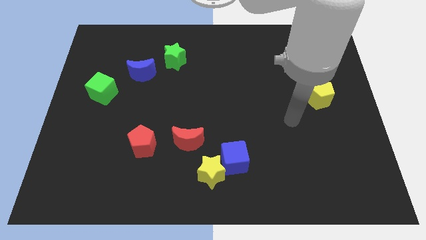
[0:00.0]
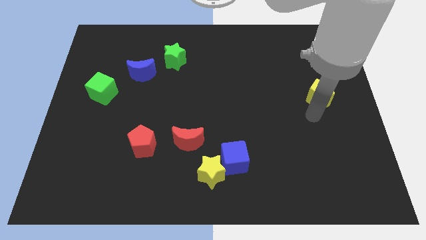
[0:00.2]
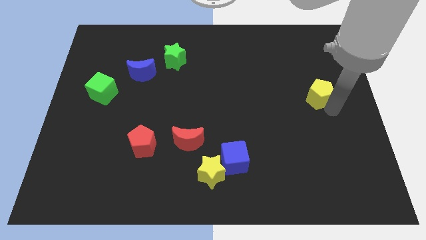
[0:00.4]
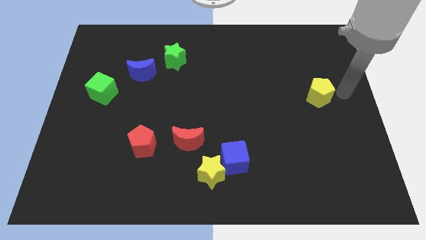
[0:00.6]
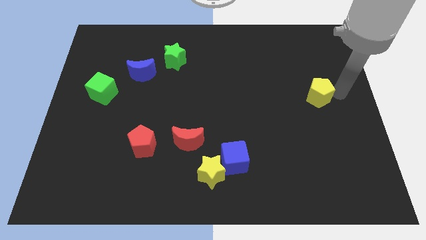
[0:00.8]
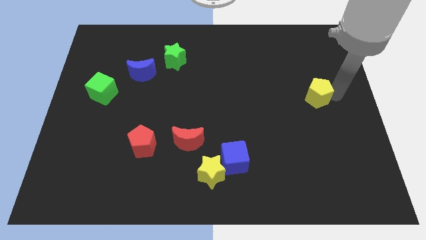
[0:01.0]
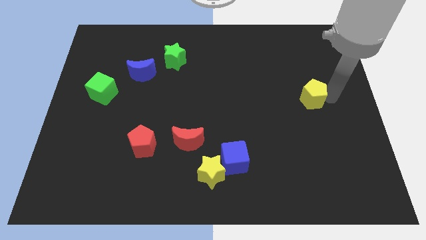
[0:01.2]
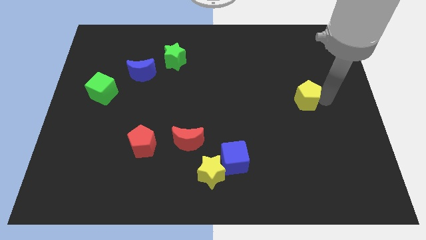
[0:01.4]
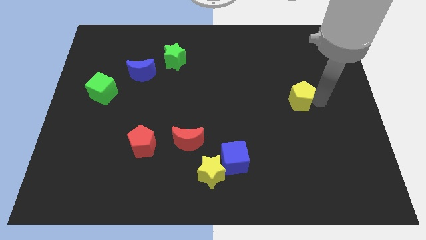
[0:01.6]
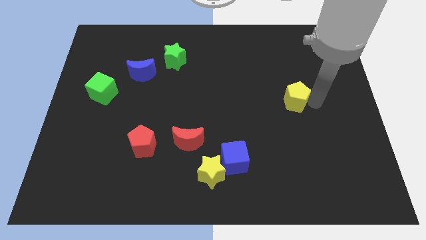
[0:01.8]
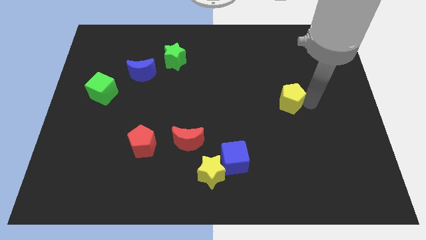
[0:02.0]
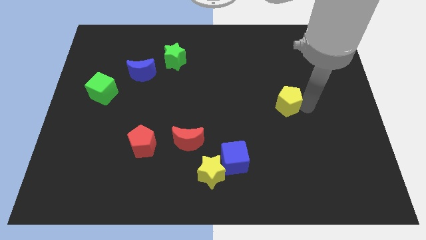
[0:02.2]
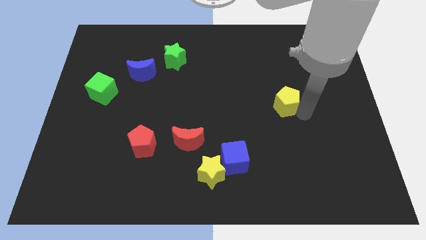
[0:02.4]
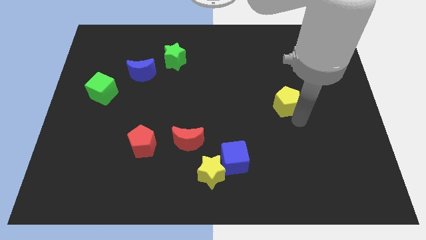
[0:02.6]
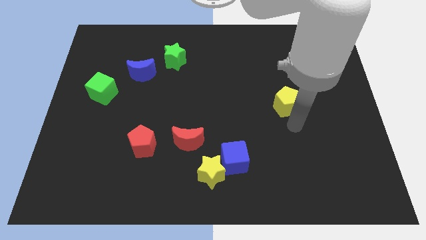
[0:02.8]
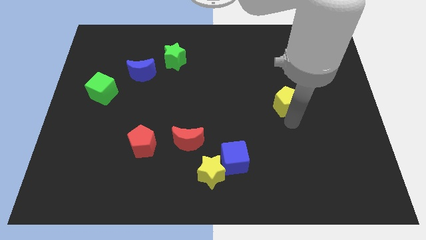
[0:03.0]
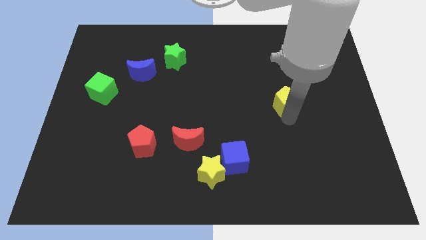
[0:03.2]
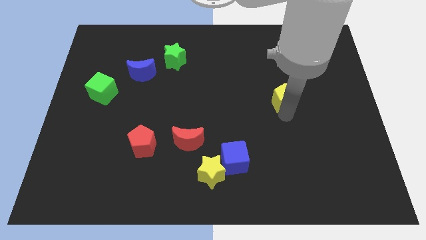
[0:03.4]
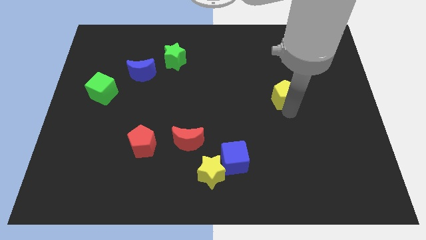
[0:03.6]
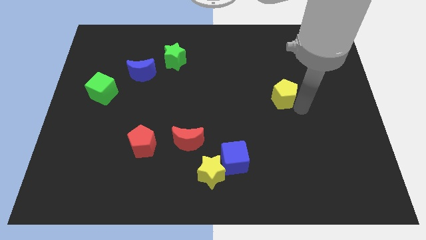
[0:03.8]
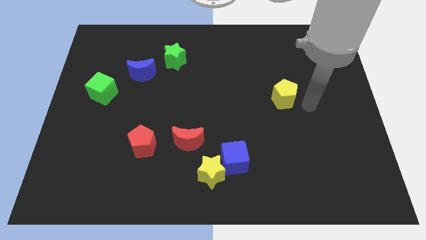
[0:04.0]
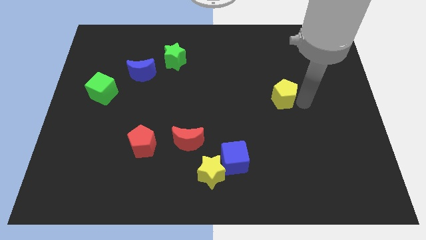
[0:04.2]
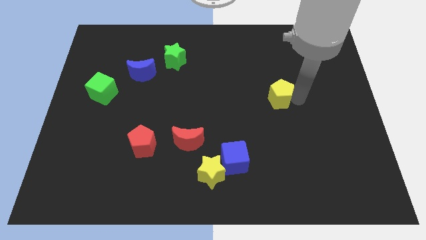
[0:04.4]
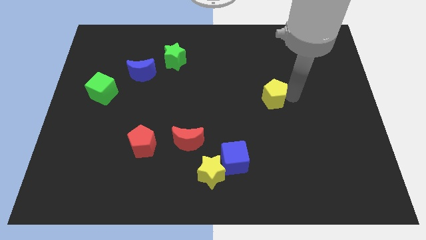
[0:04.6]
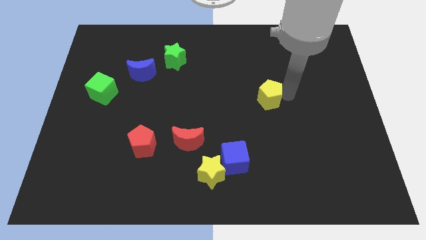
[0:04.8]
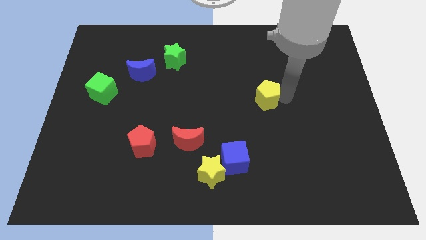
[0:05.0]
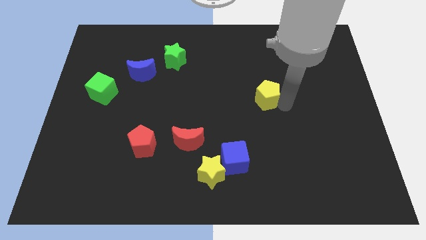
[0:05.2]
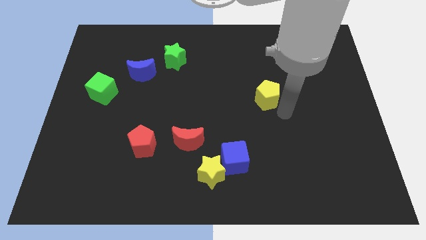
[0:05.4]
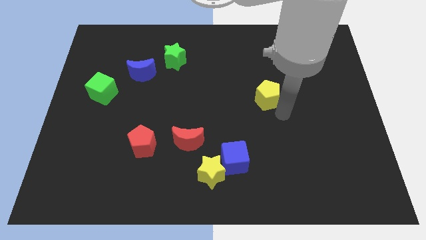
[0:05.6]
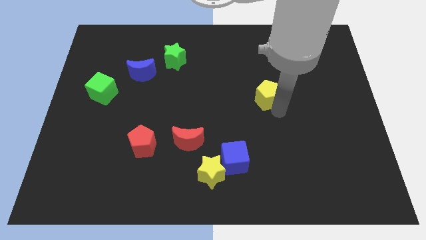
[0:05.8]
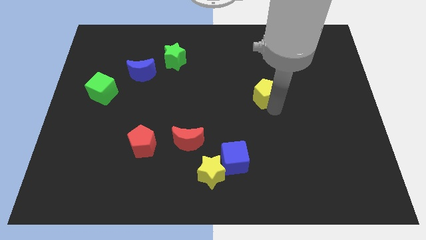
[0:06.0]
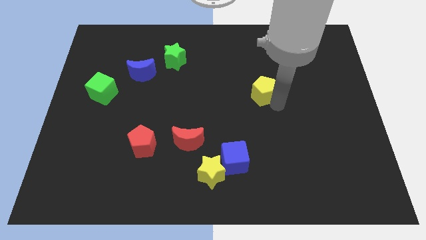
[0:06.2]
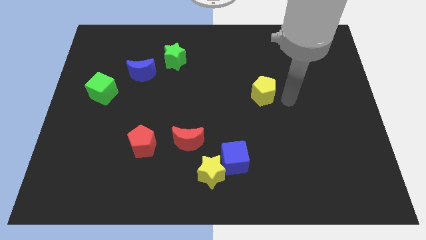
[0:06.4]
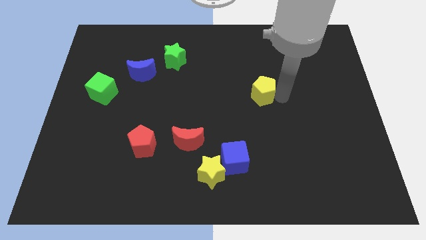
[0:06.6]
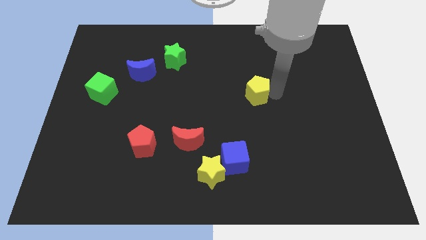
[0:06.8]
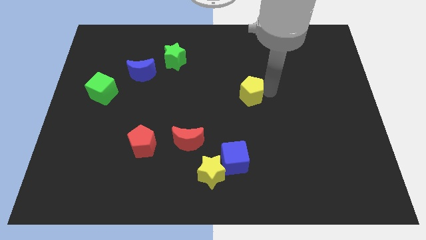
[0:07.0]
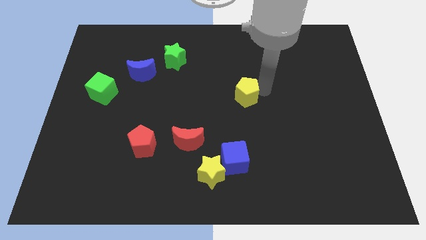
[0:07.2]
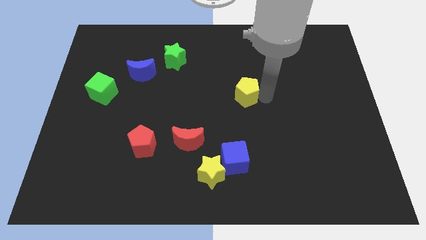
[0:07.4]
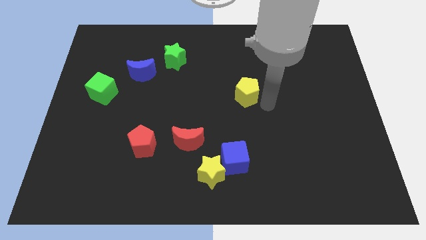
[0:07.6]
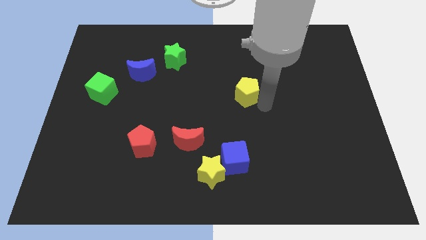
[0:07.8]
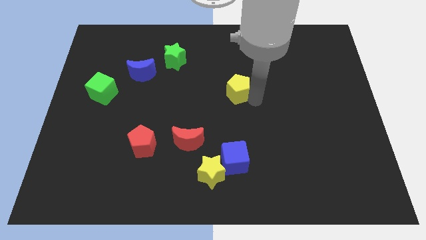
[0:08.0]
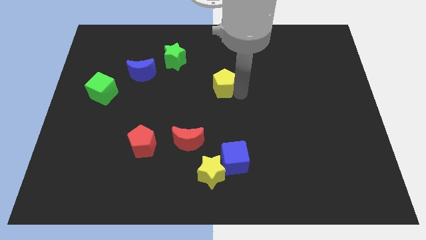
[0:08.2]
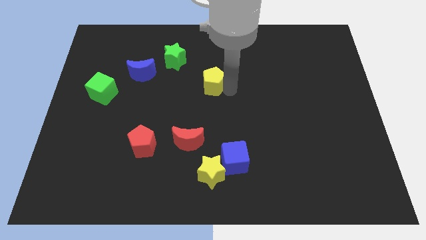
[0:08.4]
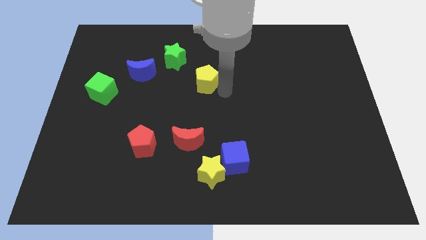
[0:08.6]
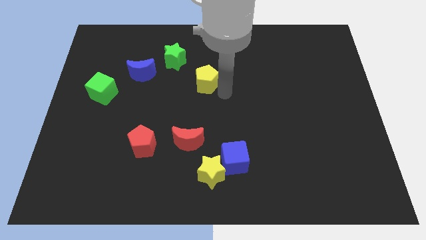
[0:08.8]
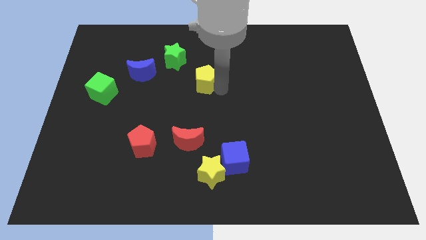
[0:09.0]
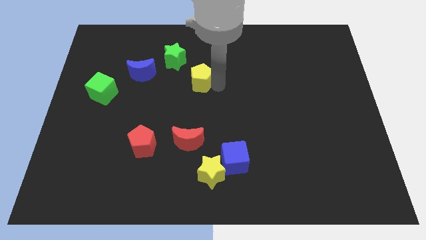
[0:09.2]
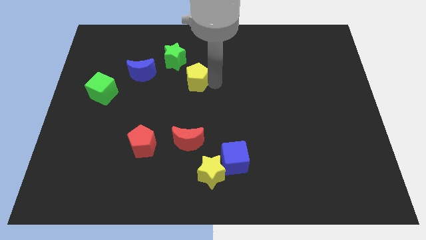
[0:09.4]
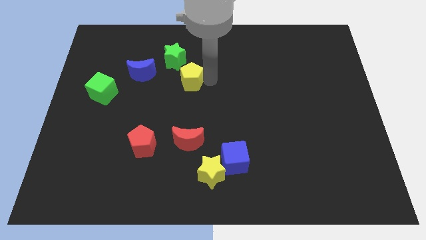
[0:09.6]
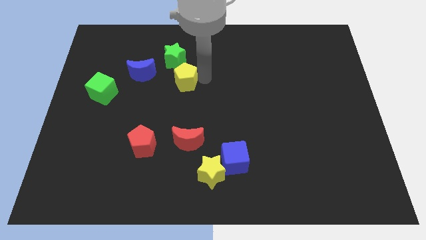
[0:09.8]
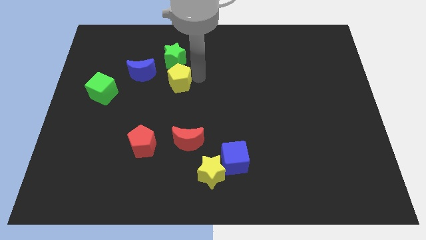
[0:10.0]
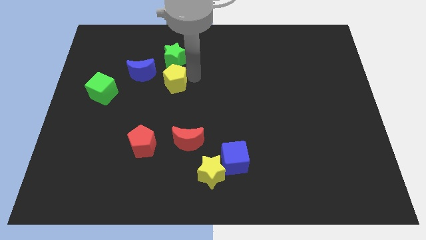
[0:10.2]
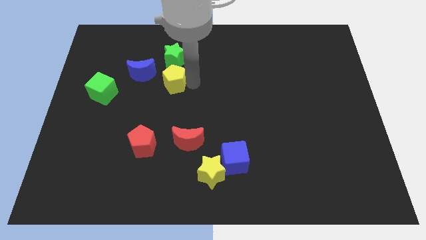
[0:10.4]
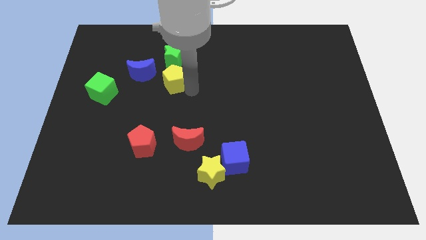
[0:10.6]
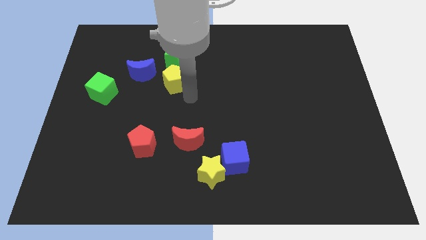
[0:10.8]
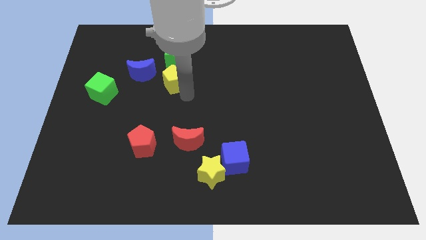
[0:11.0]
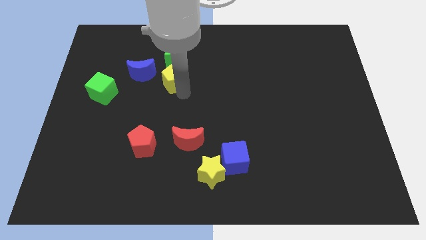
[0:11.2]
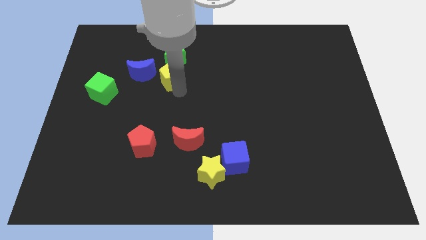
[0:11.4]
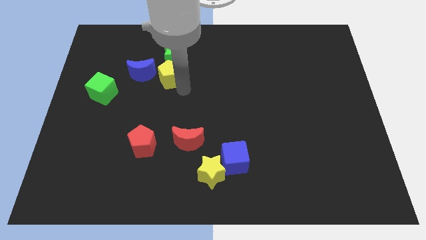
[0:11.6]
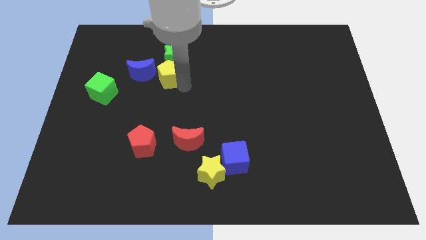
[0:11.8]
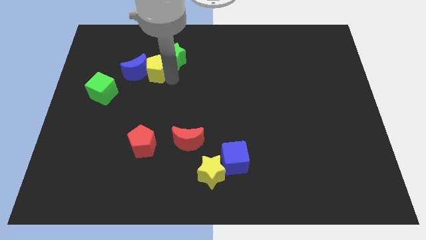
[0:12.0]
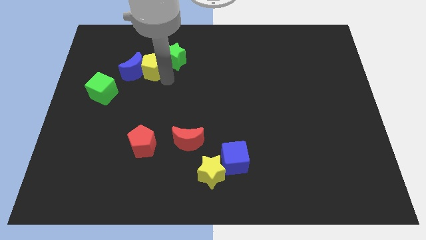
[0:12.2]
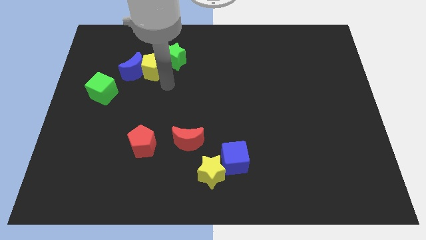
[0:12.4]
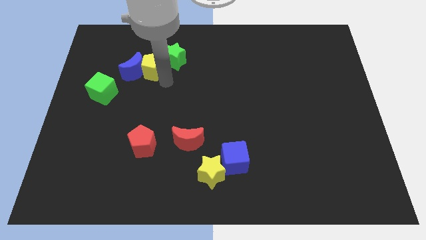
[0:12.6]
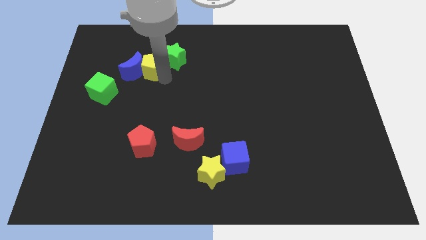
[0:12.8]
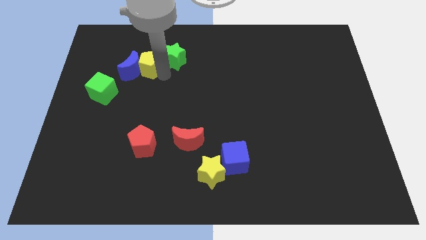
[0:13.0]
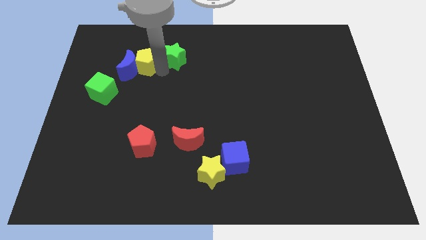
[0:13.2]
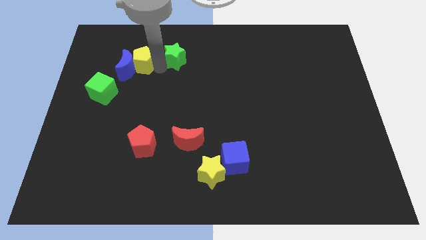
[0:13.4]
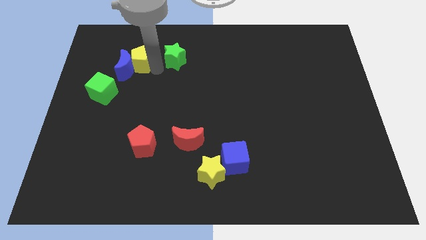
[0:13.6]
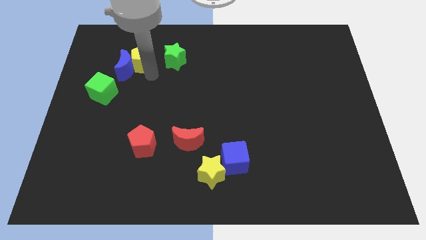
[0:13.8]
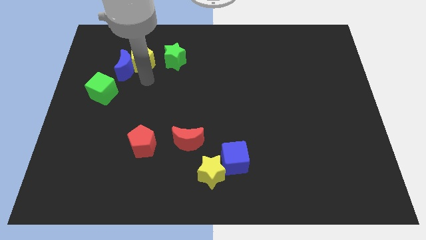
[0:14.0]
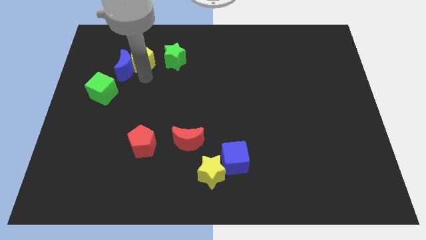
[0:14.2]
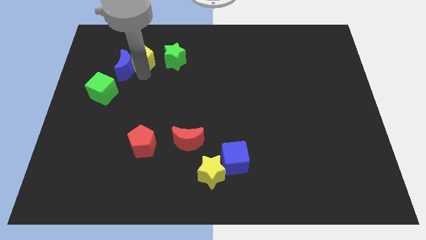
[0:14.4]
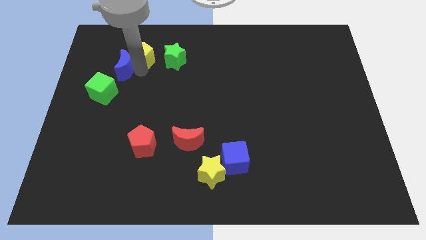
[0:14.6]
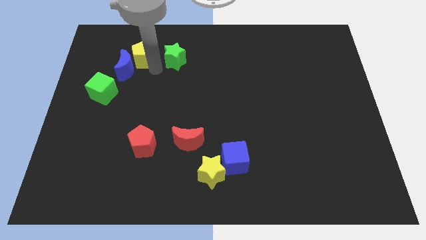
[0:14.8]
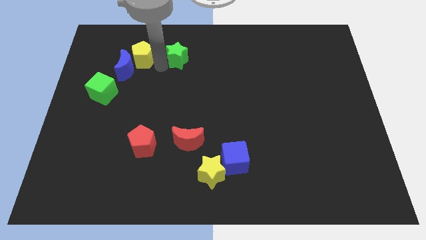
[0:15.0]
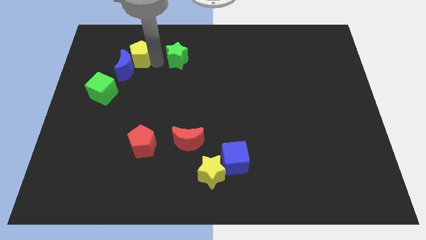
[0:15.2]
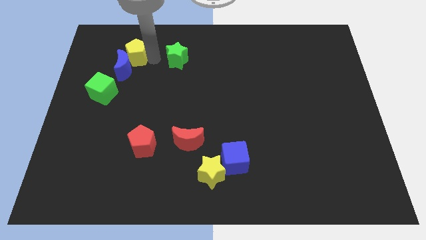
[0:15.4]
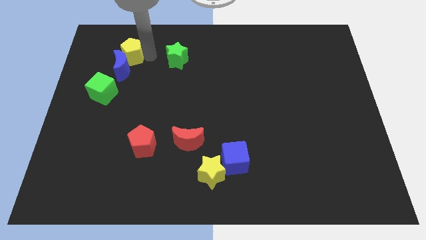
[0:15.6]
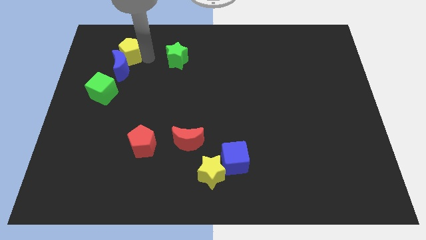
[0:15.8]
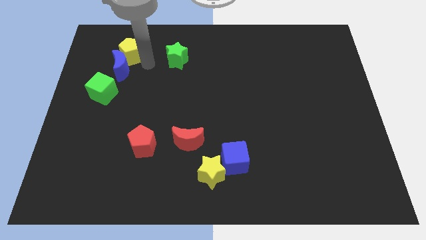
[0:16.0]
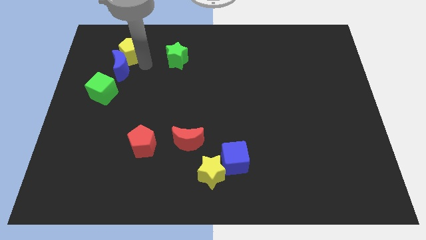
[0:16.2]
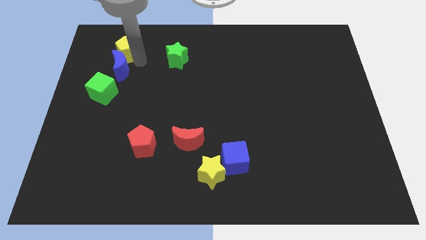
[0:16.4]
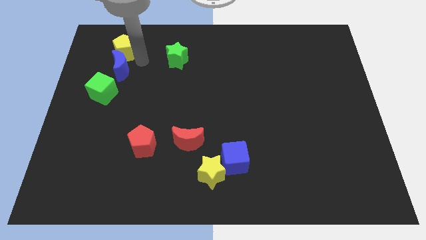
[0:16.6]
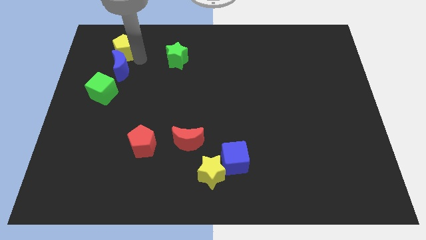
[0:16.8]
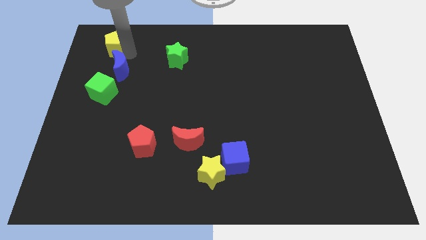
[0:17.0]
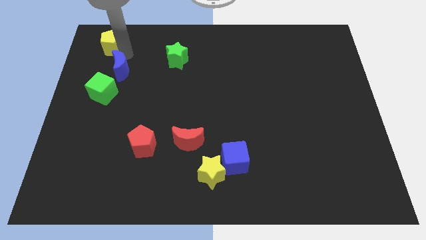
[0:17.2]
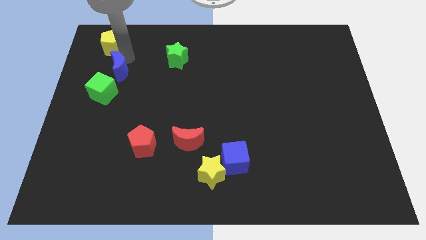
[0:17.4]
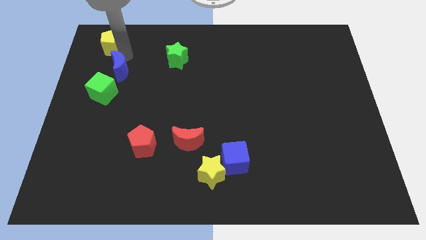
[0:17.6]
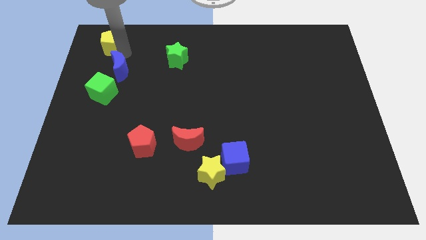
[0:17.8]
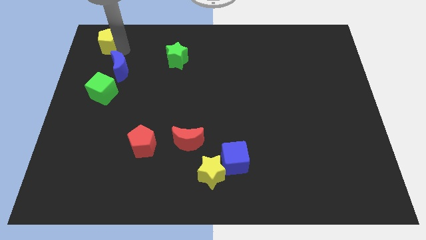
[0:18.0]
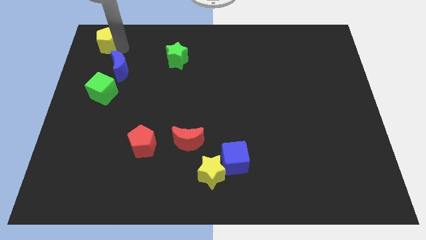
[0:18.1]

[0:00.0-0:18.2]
put the yellow pentagon to the top left corner
